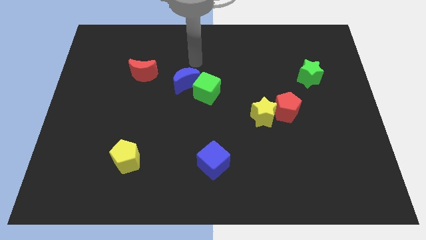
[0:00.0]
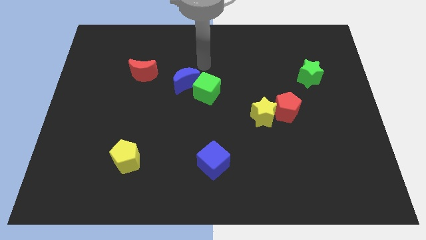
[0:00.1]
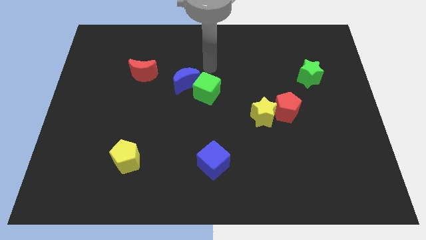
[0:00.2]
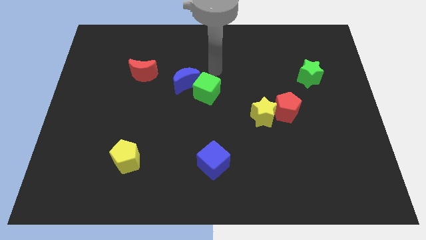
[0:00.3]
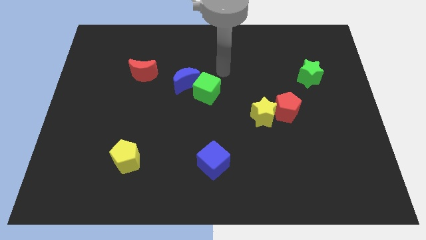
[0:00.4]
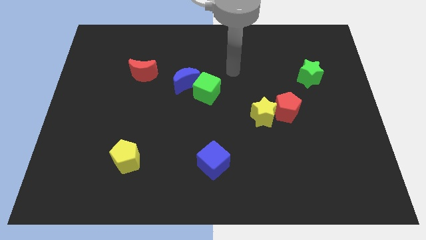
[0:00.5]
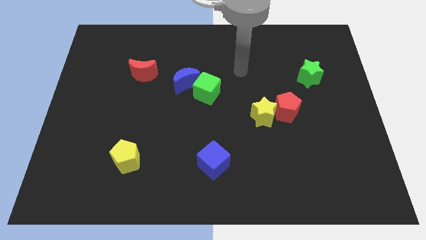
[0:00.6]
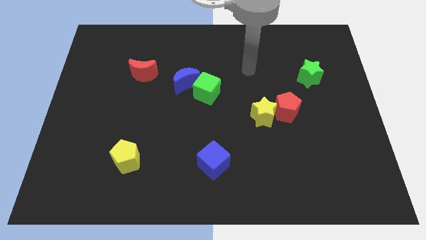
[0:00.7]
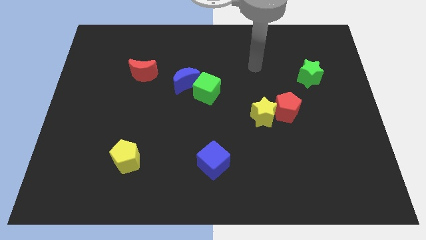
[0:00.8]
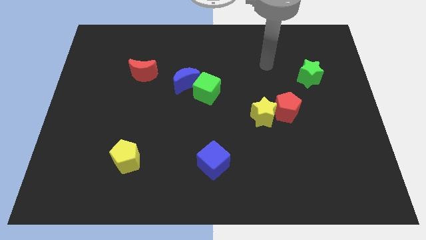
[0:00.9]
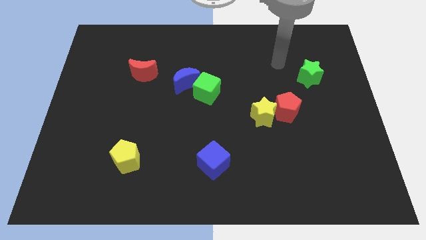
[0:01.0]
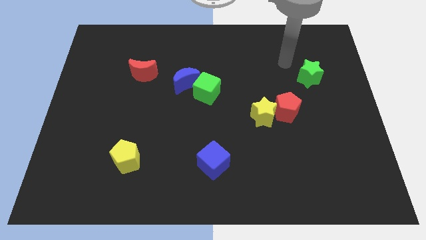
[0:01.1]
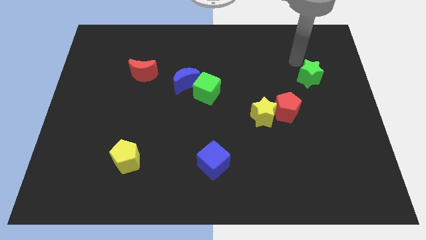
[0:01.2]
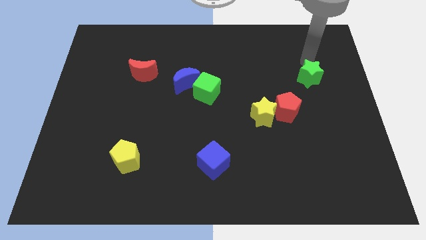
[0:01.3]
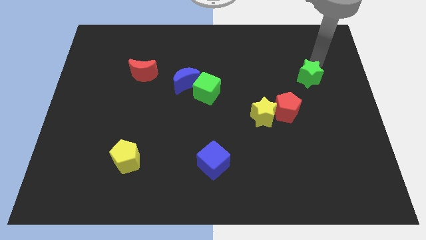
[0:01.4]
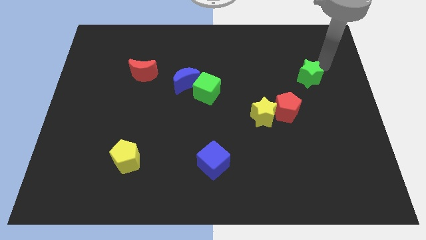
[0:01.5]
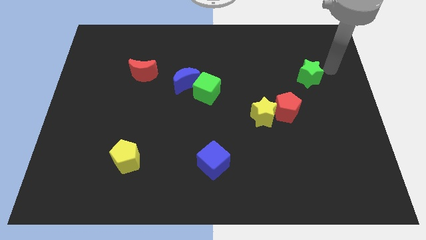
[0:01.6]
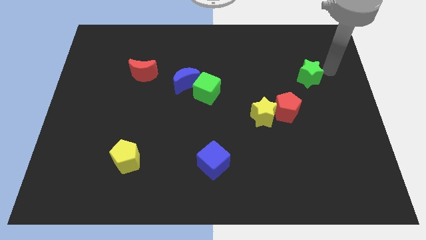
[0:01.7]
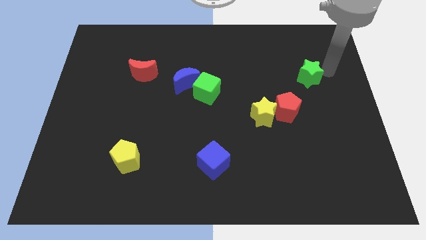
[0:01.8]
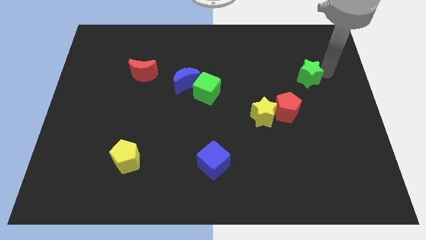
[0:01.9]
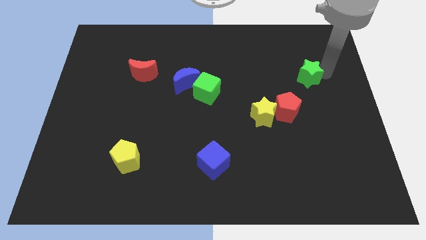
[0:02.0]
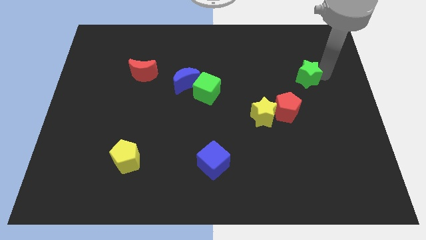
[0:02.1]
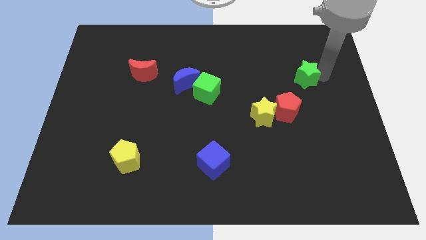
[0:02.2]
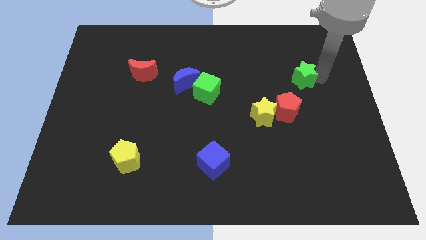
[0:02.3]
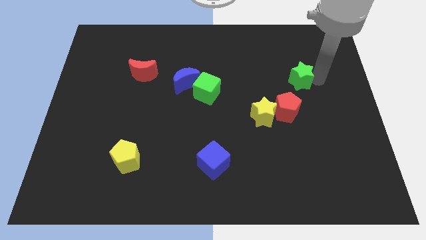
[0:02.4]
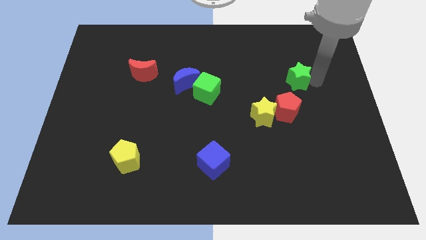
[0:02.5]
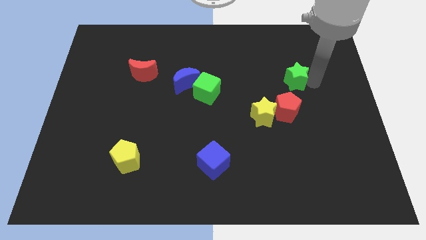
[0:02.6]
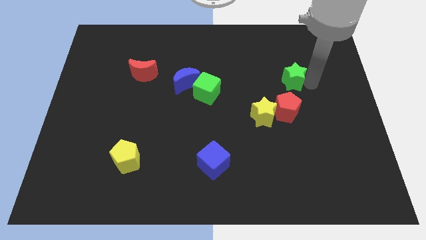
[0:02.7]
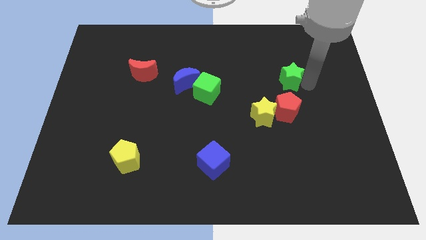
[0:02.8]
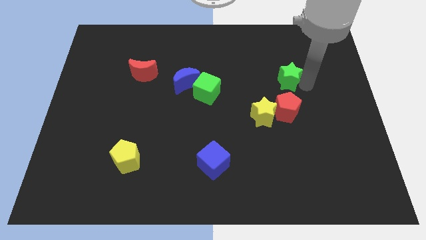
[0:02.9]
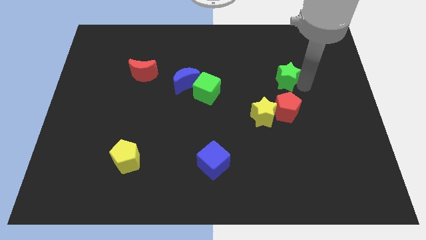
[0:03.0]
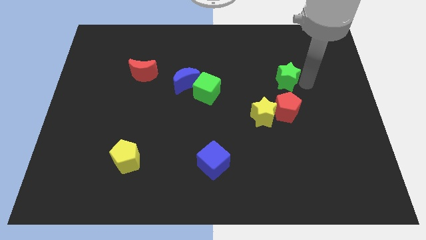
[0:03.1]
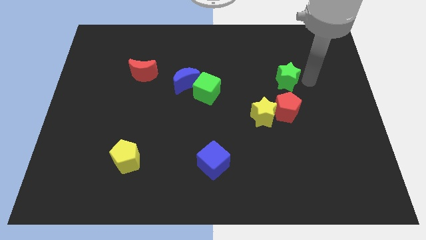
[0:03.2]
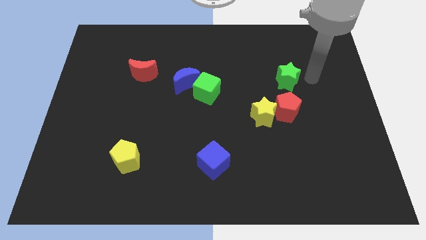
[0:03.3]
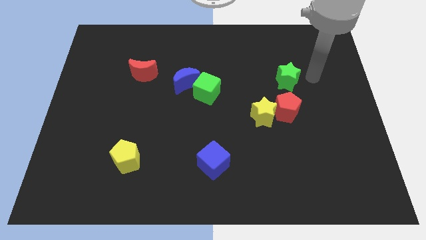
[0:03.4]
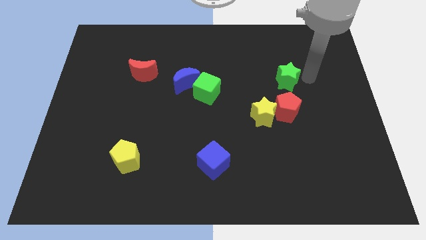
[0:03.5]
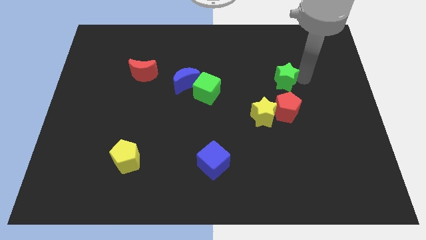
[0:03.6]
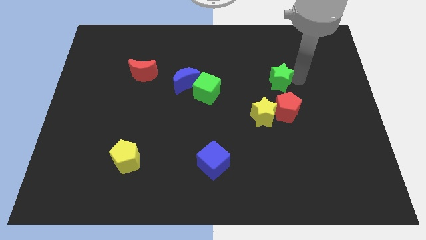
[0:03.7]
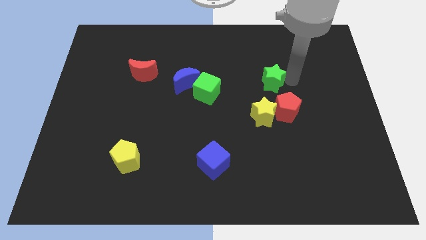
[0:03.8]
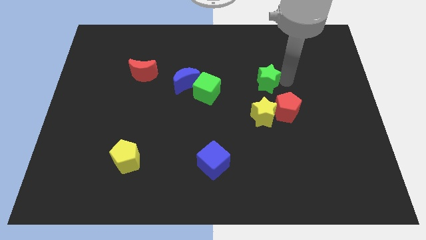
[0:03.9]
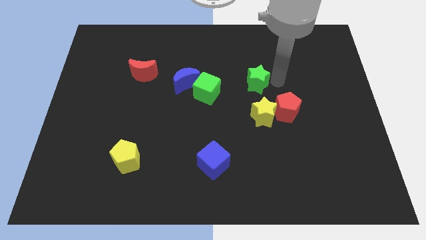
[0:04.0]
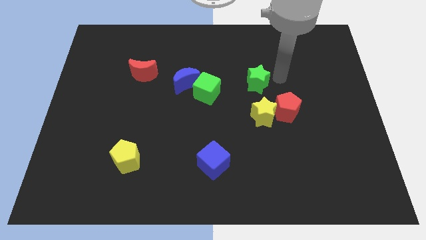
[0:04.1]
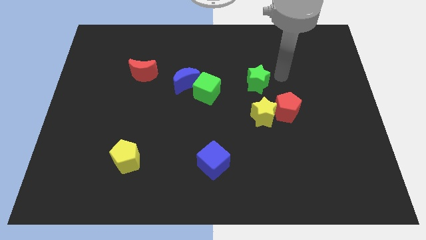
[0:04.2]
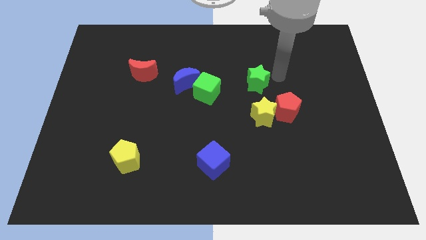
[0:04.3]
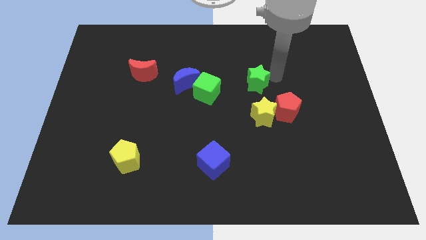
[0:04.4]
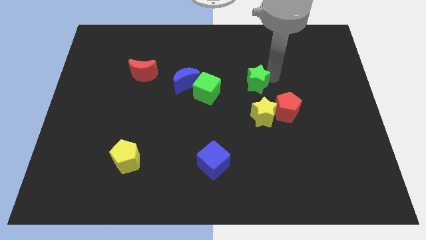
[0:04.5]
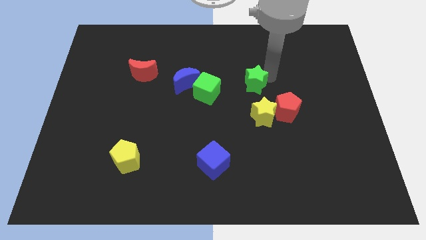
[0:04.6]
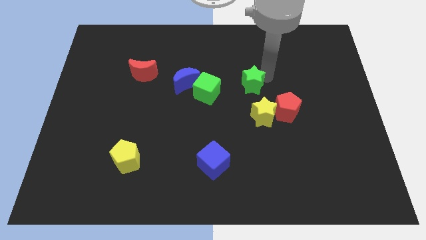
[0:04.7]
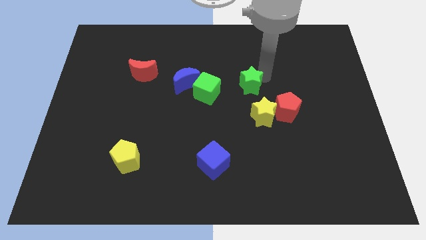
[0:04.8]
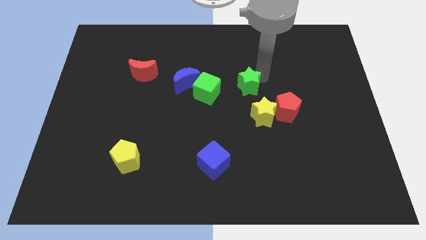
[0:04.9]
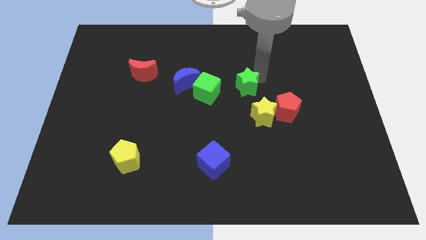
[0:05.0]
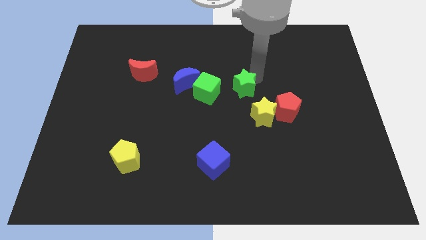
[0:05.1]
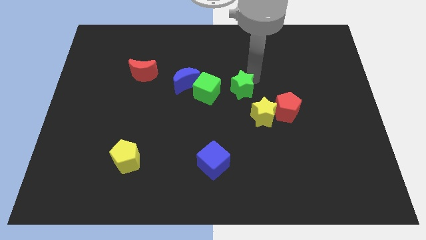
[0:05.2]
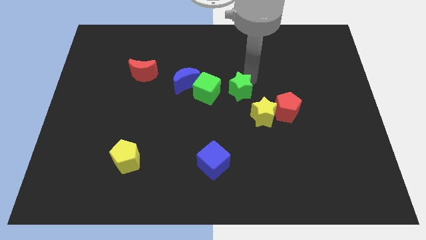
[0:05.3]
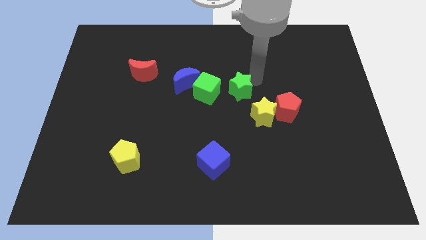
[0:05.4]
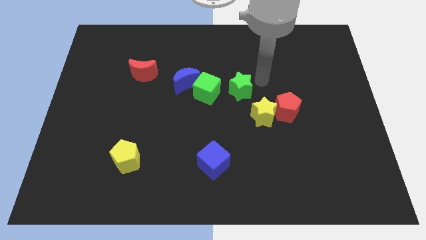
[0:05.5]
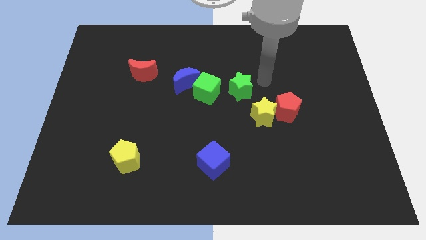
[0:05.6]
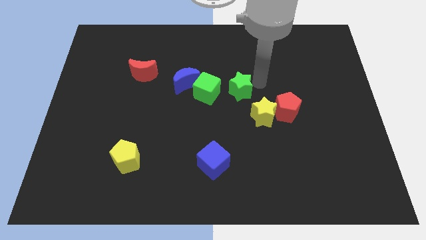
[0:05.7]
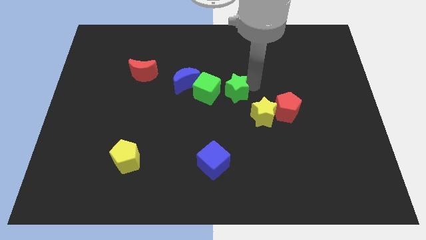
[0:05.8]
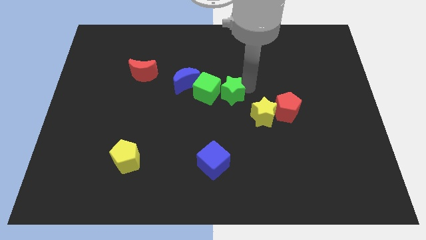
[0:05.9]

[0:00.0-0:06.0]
put the green star close to the green cube

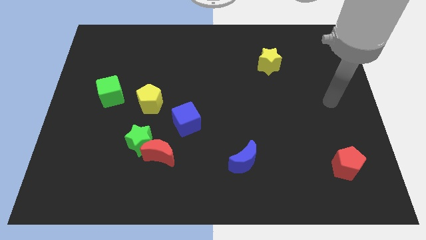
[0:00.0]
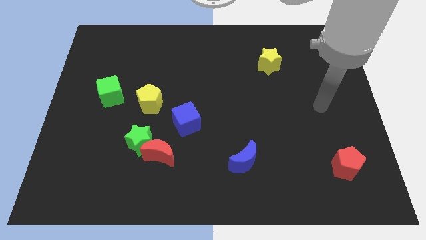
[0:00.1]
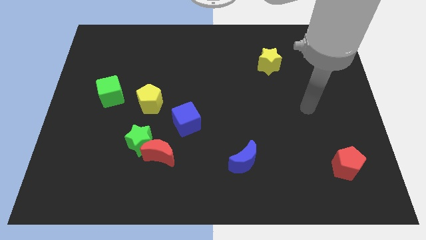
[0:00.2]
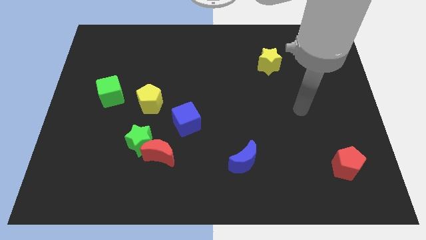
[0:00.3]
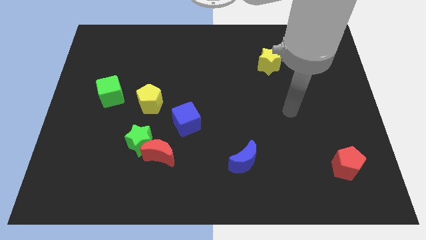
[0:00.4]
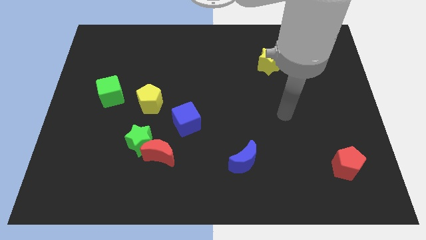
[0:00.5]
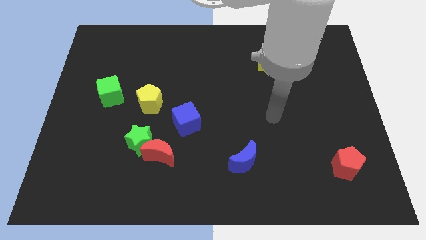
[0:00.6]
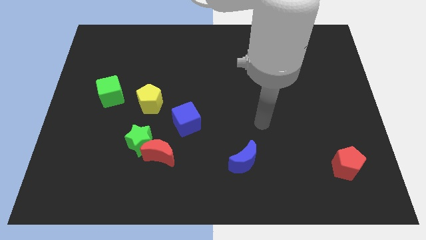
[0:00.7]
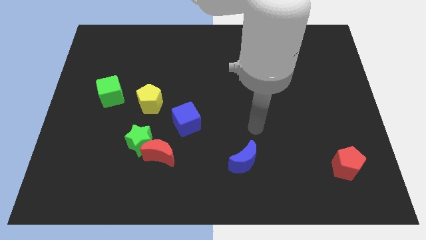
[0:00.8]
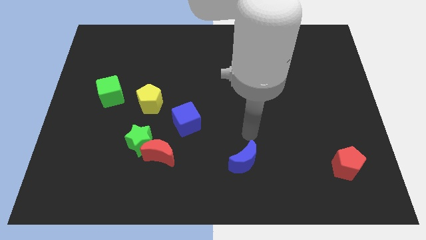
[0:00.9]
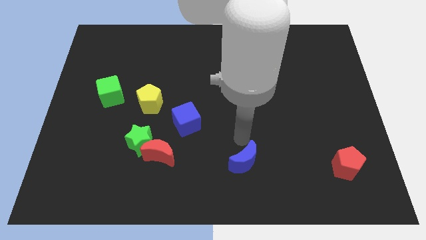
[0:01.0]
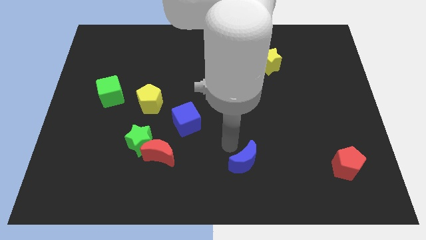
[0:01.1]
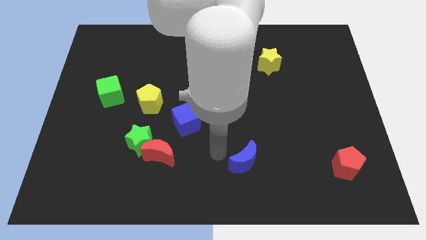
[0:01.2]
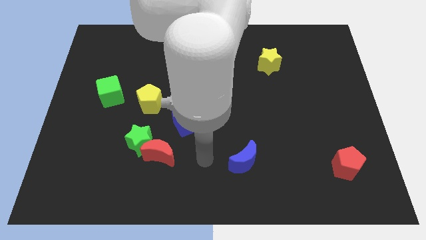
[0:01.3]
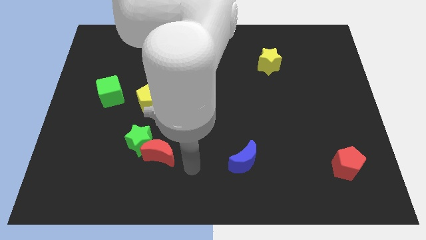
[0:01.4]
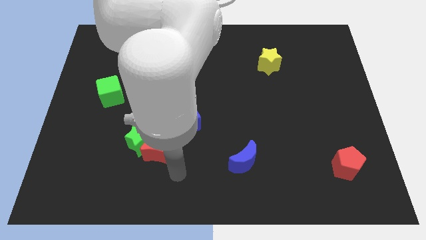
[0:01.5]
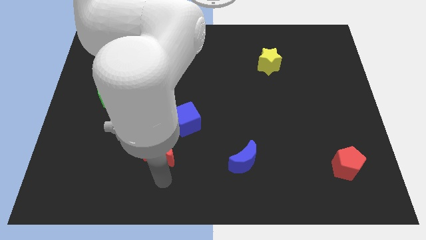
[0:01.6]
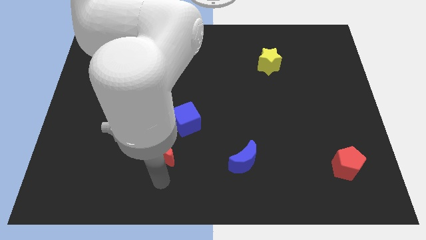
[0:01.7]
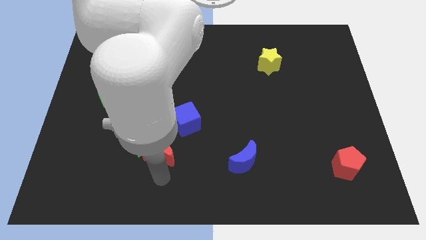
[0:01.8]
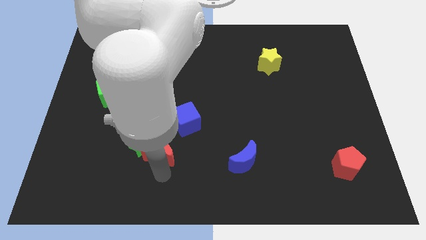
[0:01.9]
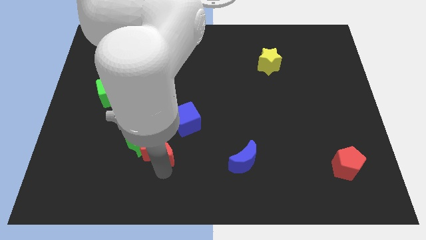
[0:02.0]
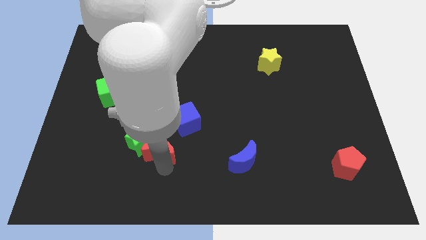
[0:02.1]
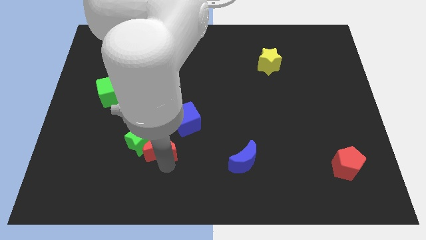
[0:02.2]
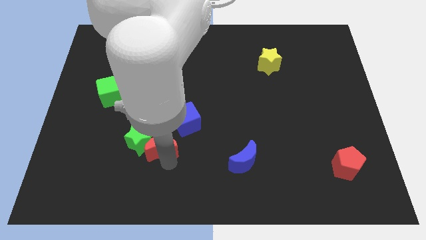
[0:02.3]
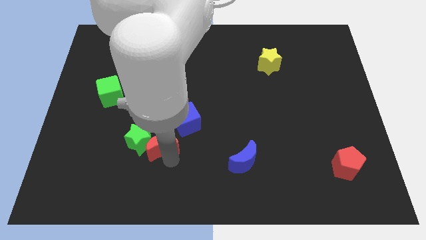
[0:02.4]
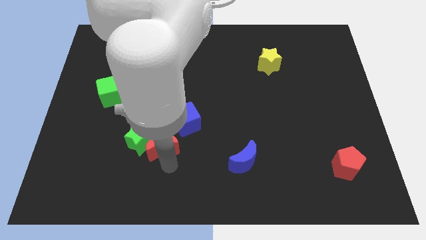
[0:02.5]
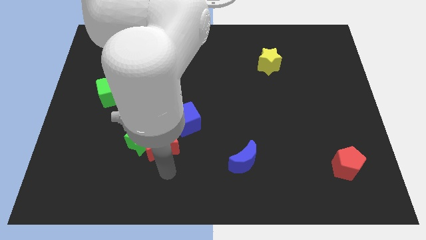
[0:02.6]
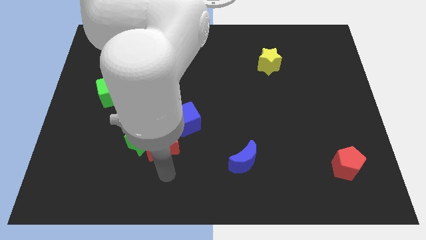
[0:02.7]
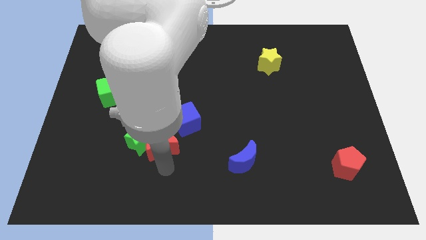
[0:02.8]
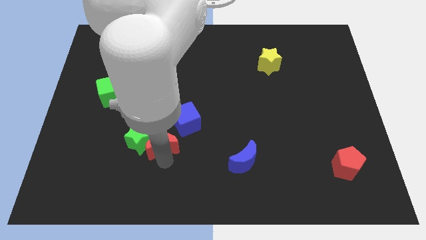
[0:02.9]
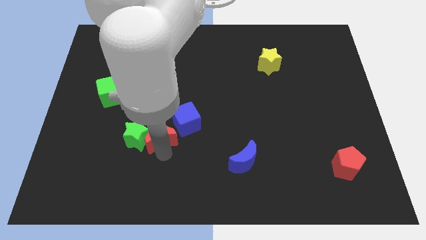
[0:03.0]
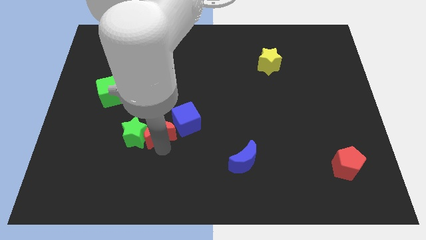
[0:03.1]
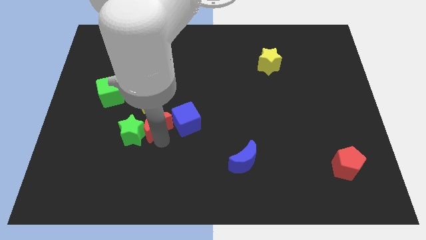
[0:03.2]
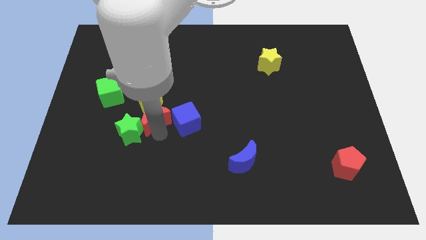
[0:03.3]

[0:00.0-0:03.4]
push the red moon towards the yellow pentagon
